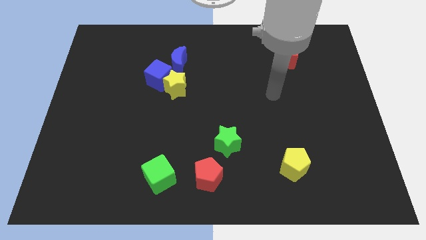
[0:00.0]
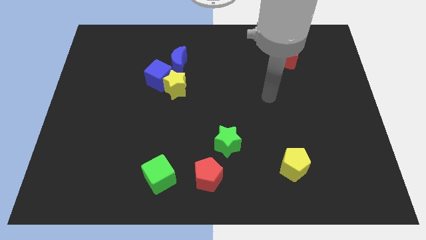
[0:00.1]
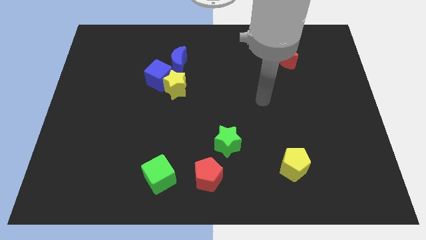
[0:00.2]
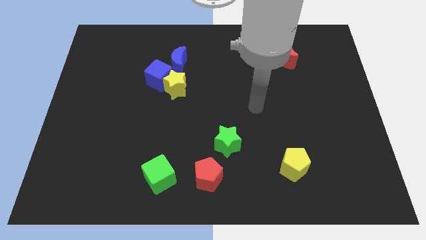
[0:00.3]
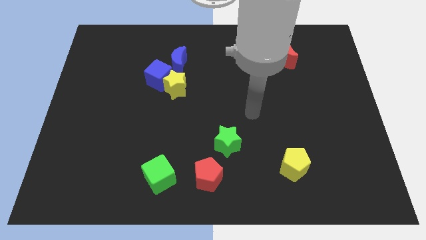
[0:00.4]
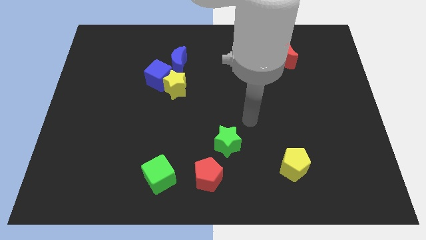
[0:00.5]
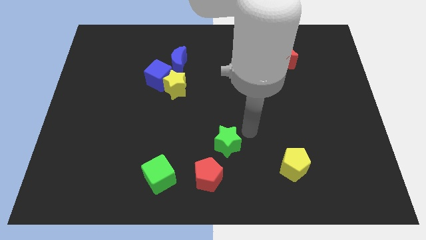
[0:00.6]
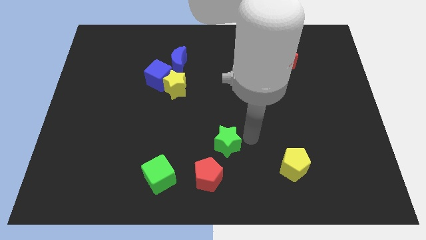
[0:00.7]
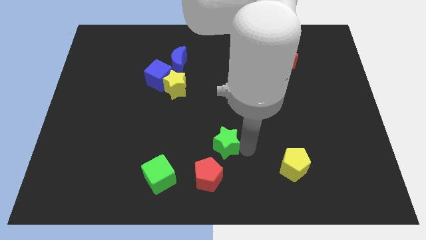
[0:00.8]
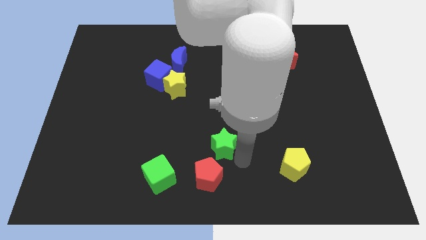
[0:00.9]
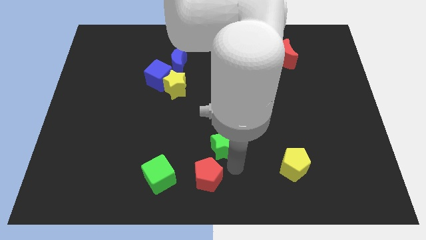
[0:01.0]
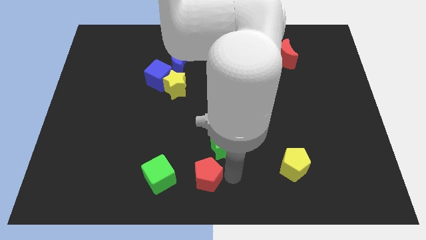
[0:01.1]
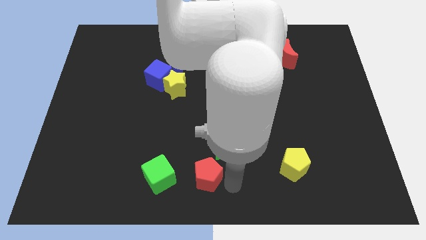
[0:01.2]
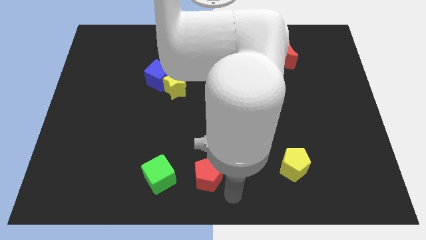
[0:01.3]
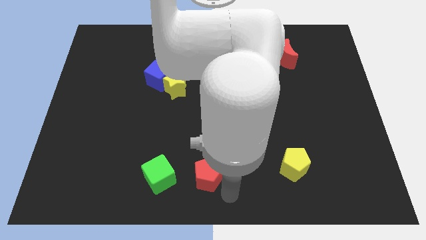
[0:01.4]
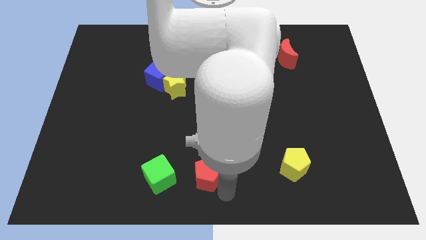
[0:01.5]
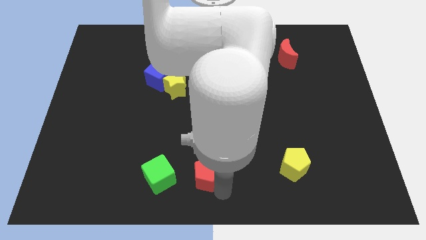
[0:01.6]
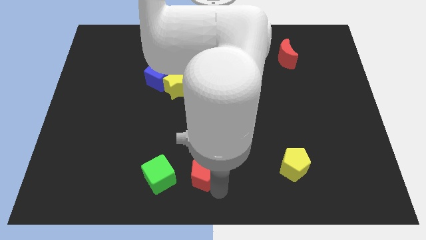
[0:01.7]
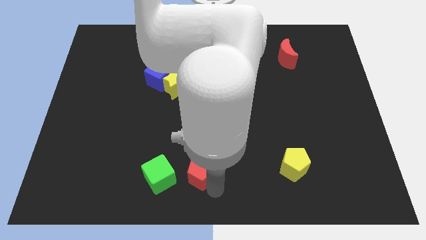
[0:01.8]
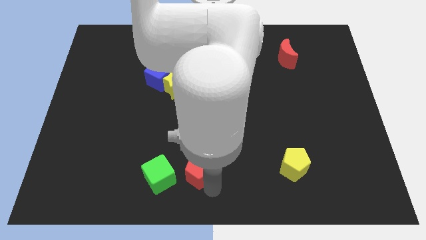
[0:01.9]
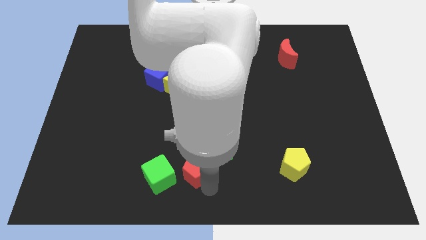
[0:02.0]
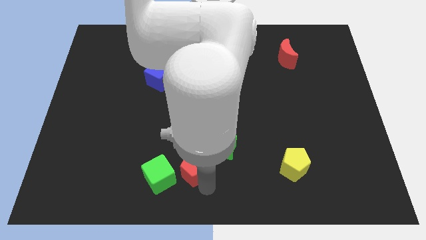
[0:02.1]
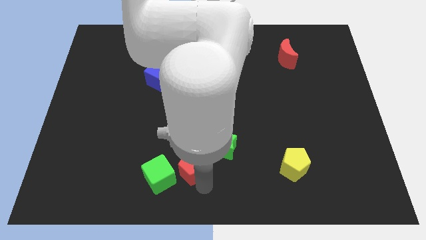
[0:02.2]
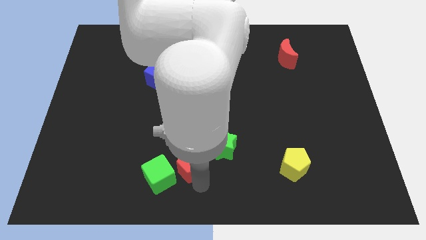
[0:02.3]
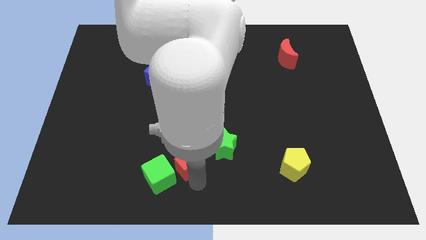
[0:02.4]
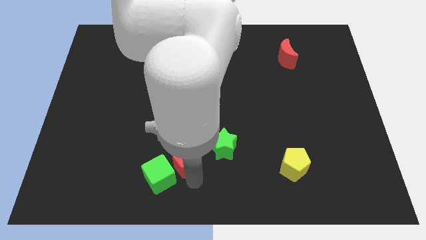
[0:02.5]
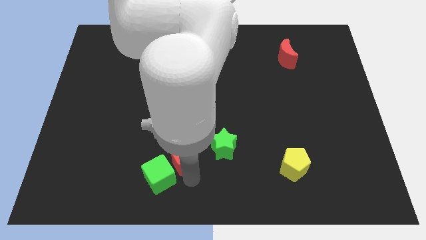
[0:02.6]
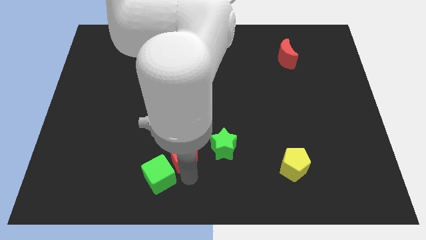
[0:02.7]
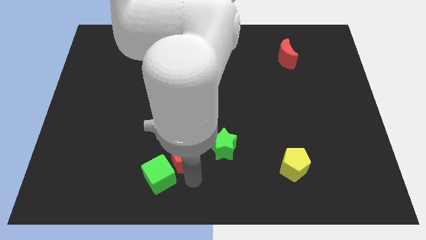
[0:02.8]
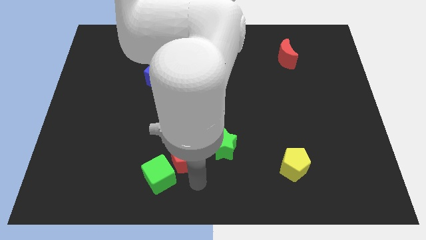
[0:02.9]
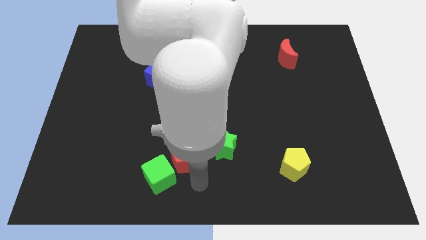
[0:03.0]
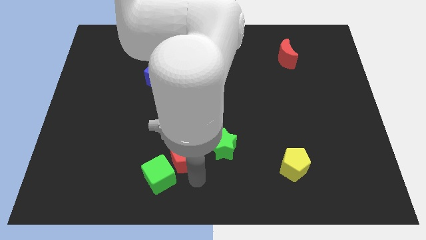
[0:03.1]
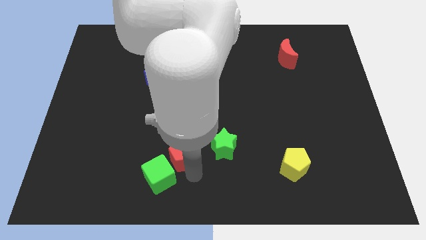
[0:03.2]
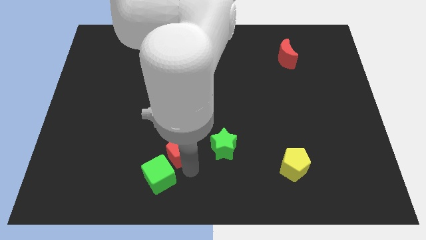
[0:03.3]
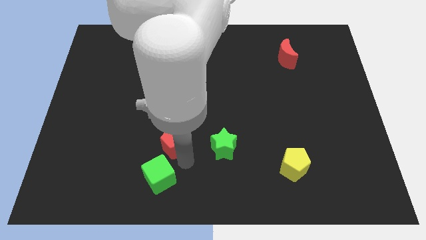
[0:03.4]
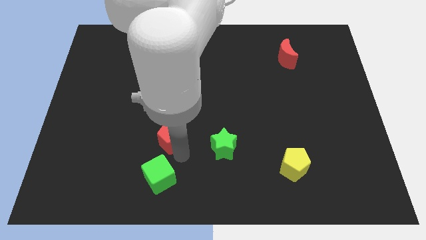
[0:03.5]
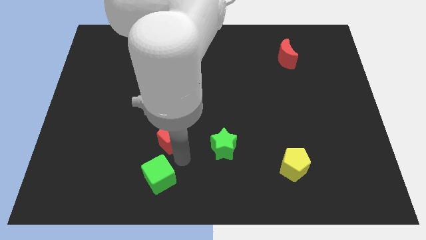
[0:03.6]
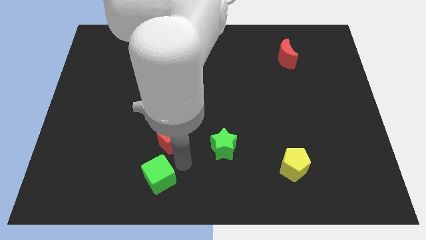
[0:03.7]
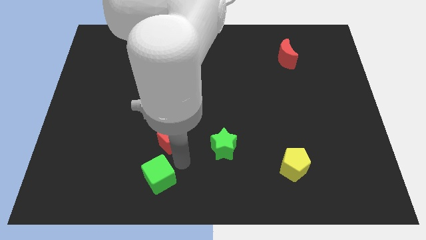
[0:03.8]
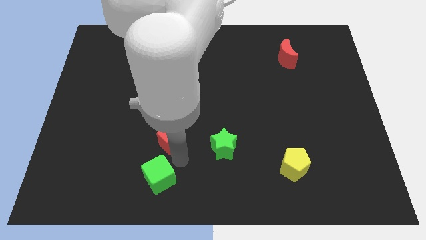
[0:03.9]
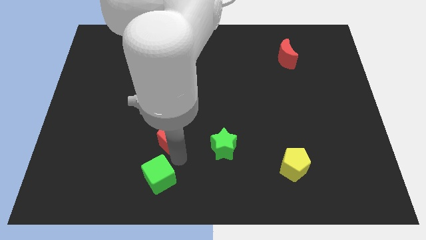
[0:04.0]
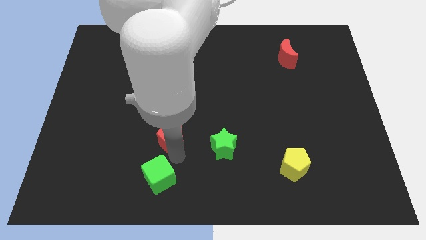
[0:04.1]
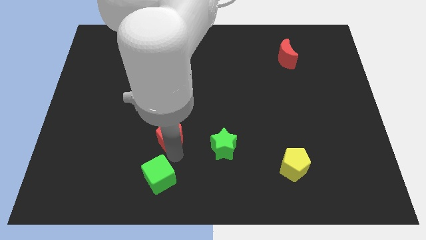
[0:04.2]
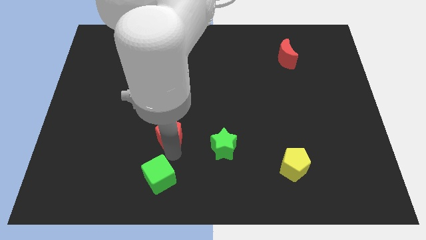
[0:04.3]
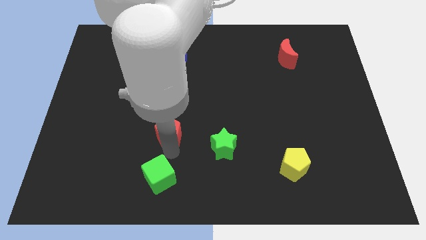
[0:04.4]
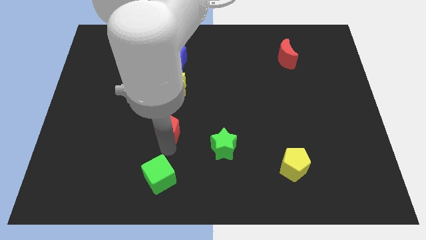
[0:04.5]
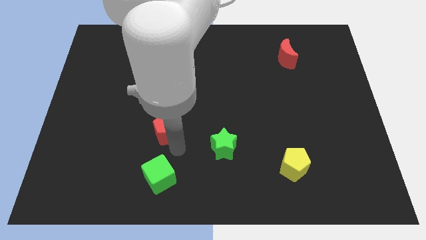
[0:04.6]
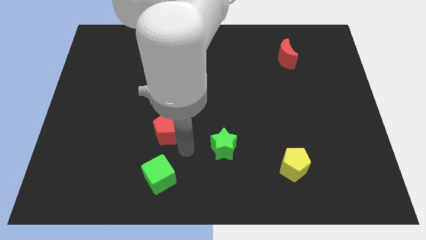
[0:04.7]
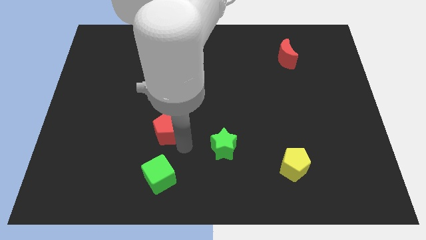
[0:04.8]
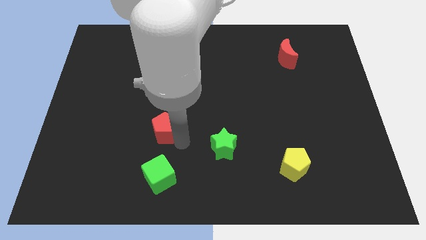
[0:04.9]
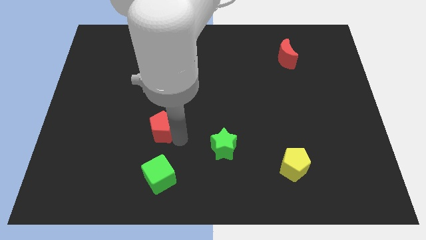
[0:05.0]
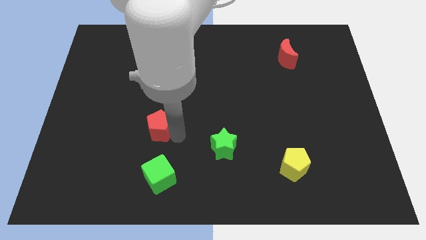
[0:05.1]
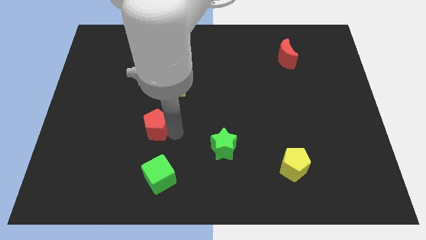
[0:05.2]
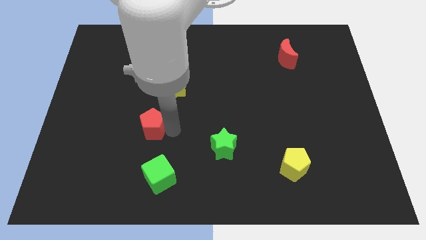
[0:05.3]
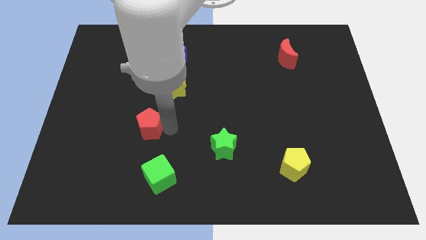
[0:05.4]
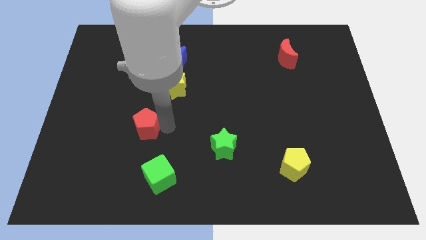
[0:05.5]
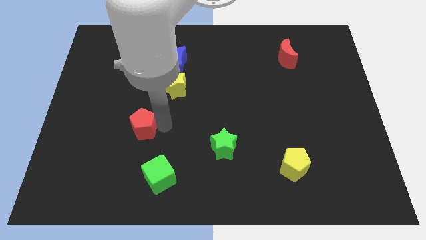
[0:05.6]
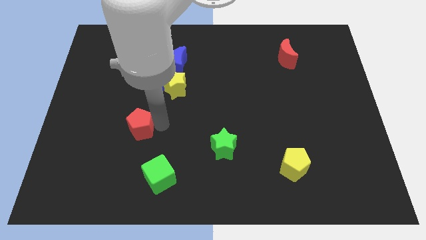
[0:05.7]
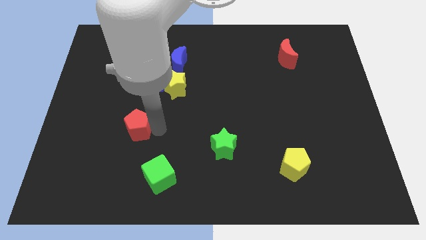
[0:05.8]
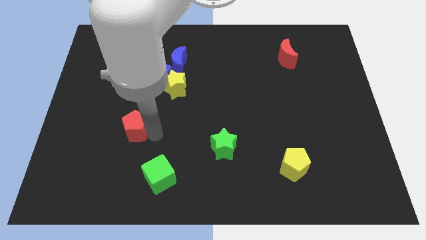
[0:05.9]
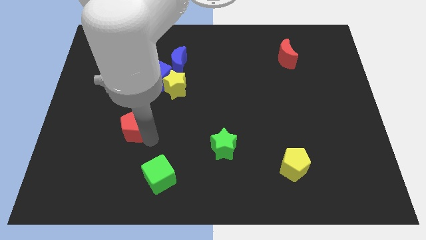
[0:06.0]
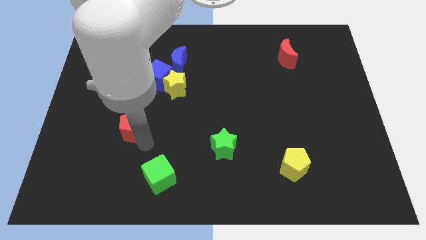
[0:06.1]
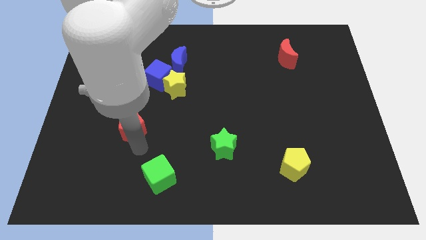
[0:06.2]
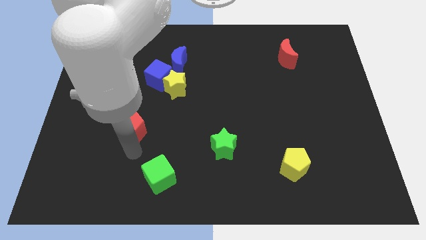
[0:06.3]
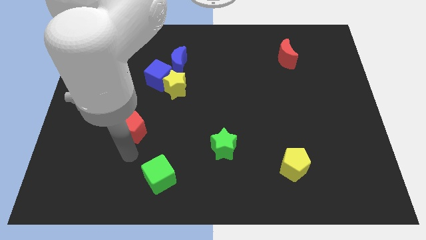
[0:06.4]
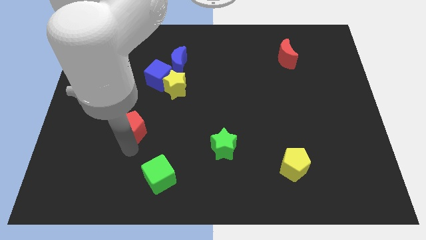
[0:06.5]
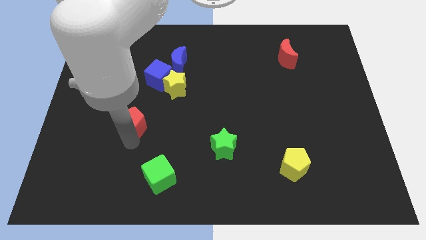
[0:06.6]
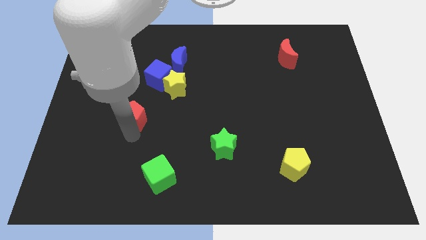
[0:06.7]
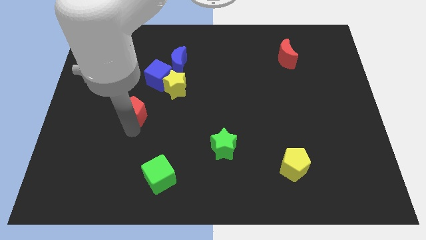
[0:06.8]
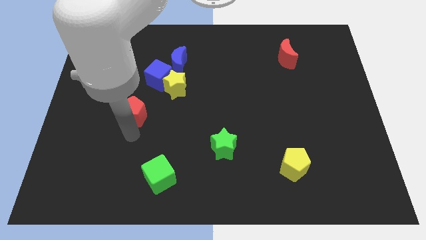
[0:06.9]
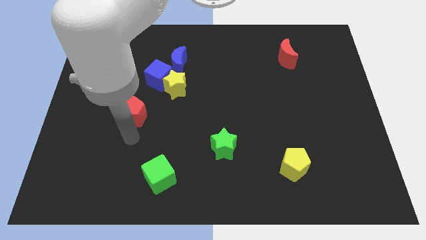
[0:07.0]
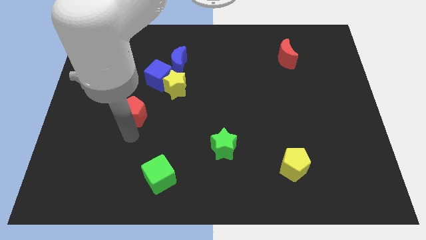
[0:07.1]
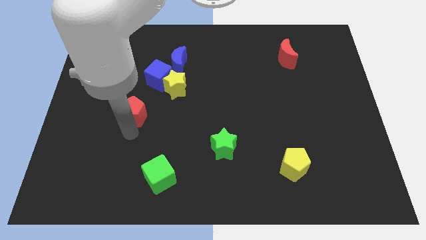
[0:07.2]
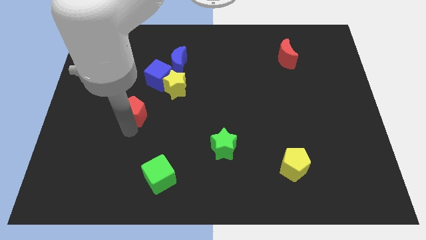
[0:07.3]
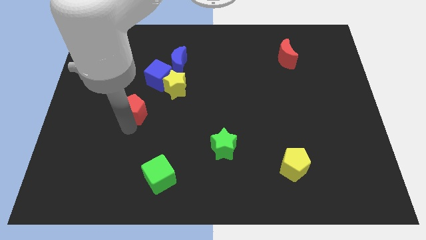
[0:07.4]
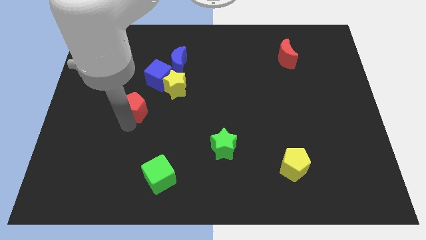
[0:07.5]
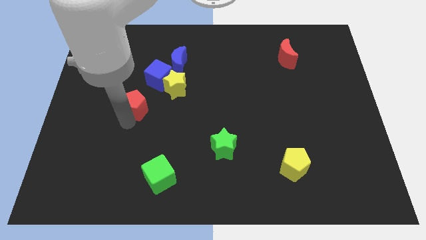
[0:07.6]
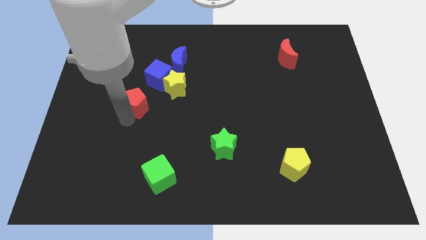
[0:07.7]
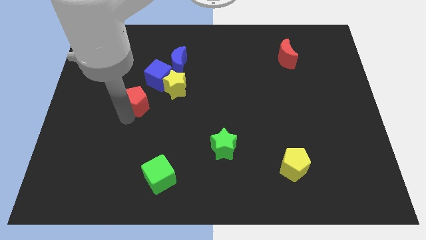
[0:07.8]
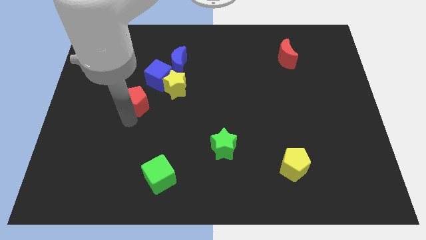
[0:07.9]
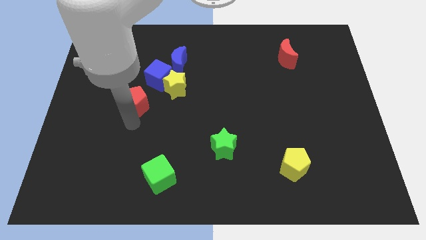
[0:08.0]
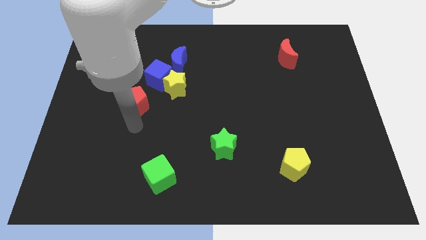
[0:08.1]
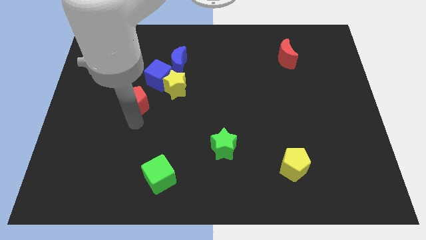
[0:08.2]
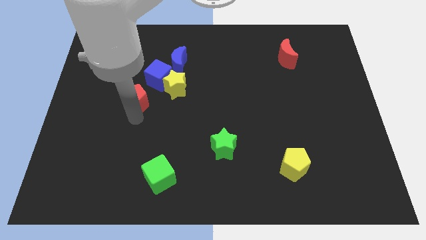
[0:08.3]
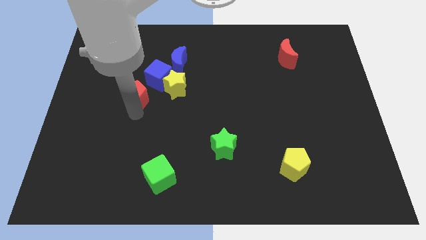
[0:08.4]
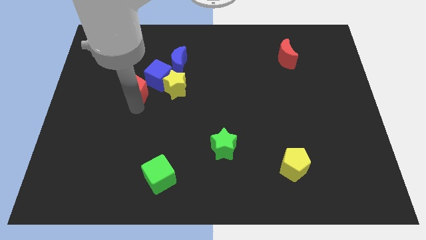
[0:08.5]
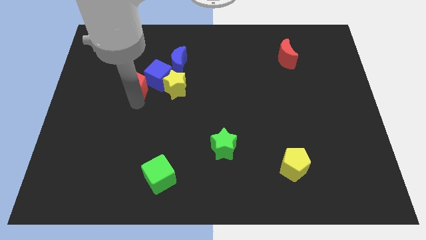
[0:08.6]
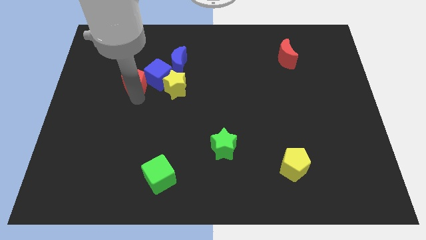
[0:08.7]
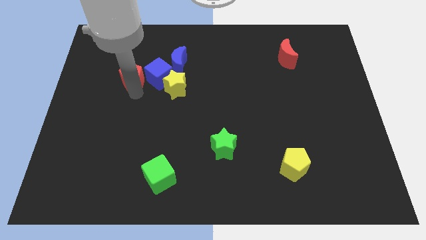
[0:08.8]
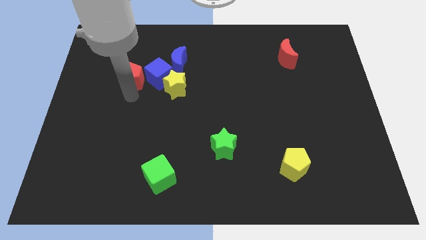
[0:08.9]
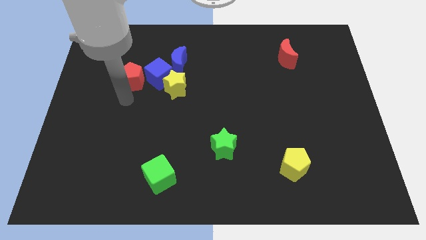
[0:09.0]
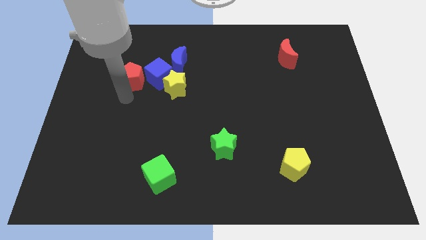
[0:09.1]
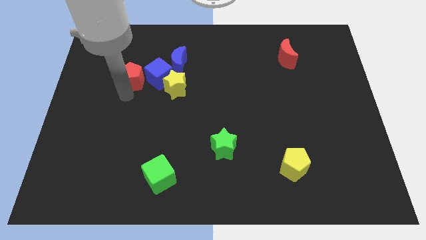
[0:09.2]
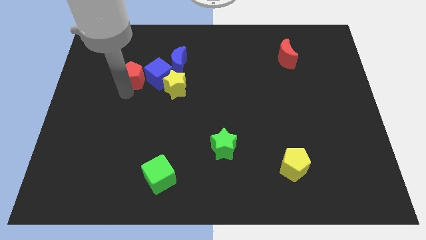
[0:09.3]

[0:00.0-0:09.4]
put the red pentagon just left of the blue moon
